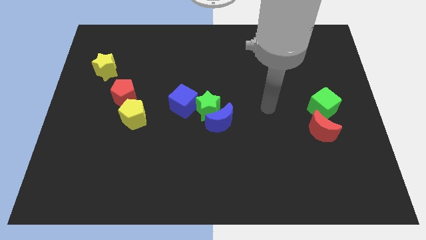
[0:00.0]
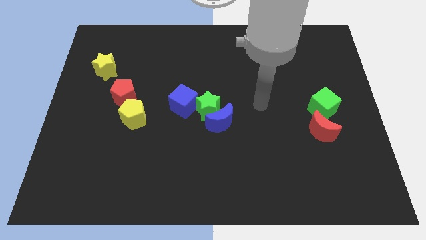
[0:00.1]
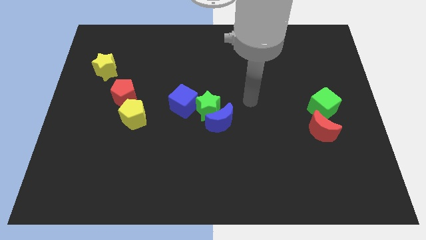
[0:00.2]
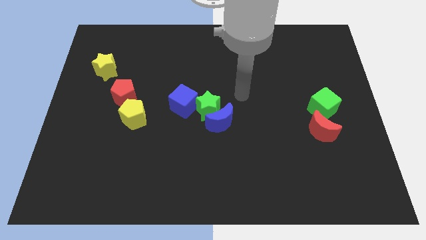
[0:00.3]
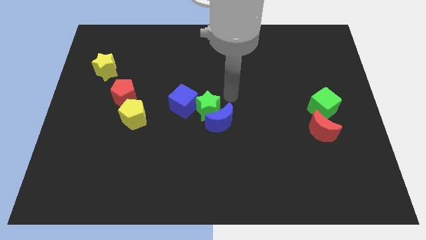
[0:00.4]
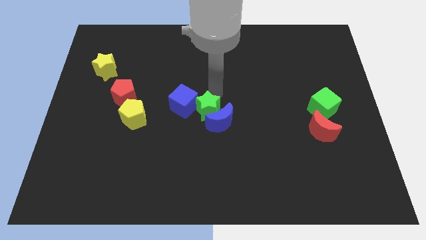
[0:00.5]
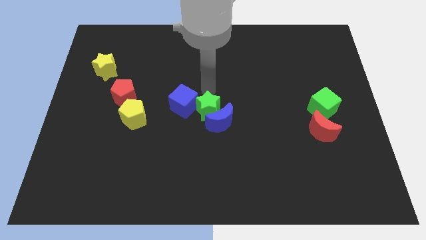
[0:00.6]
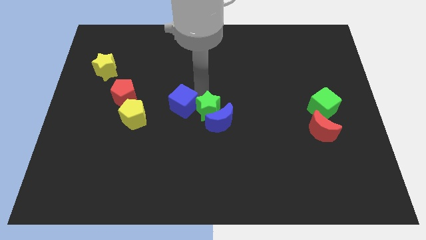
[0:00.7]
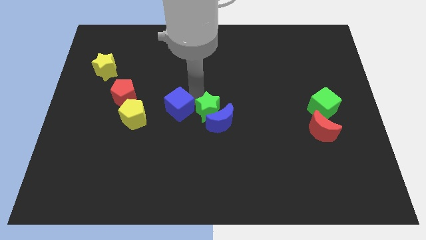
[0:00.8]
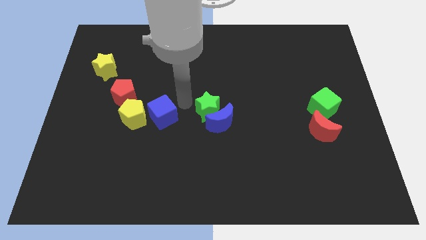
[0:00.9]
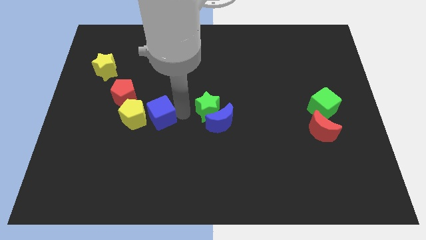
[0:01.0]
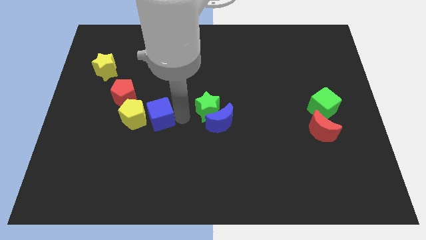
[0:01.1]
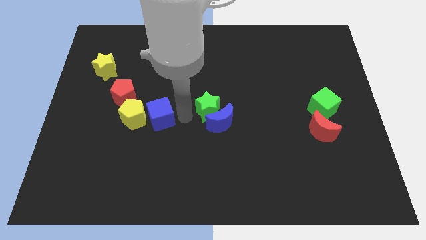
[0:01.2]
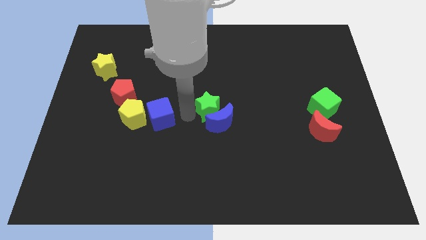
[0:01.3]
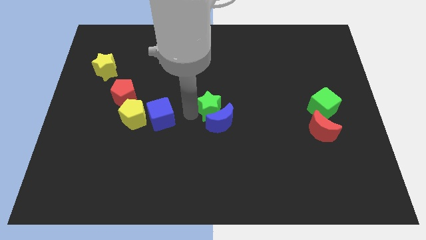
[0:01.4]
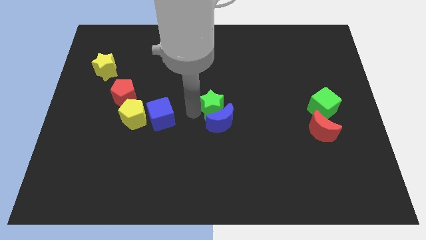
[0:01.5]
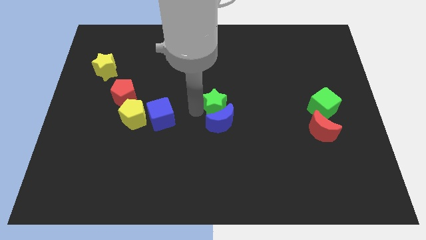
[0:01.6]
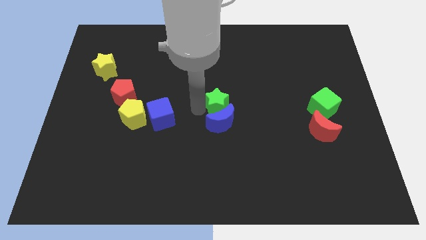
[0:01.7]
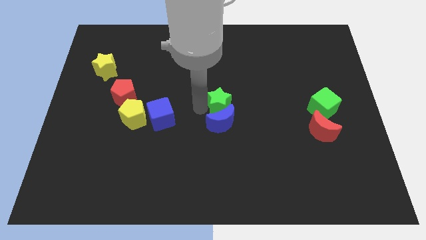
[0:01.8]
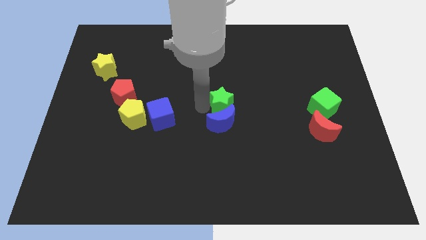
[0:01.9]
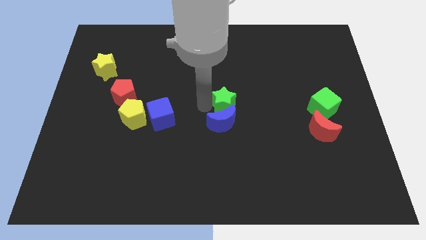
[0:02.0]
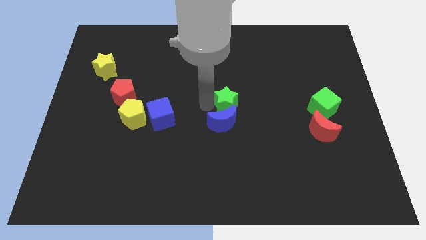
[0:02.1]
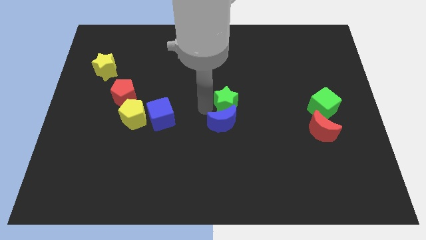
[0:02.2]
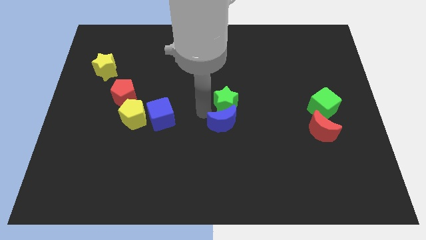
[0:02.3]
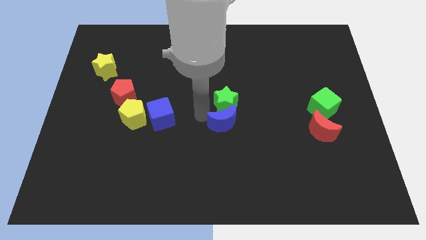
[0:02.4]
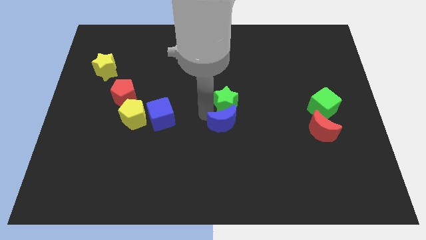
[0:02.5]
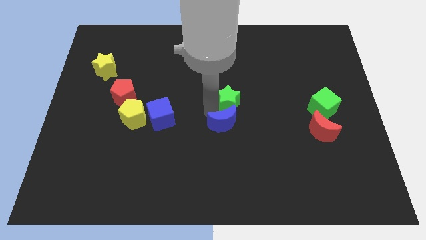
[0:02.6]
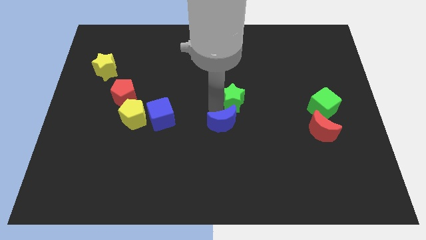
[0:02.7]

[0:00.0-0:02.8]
separate the green star from the blue moon and blue cube

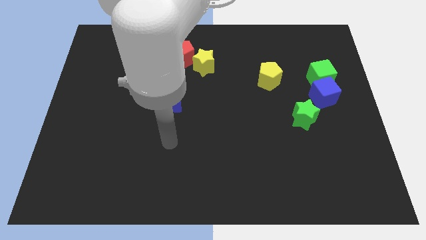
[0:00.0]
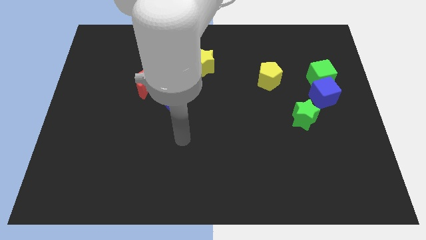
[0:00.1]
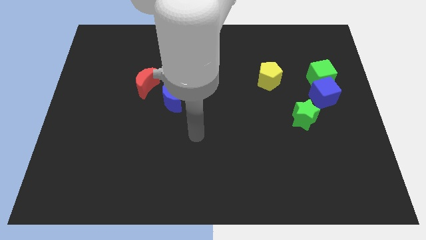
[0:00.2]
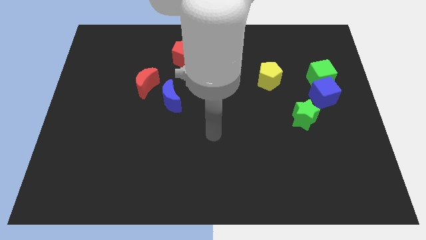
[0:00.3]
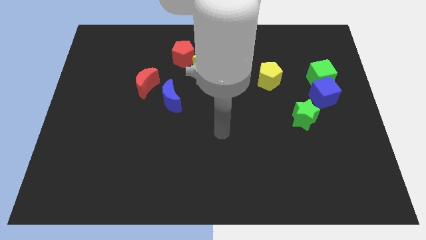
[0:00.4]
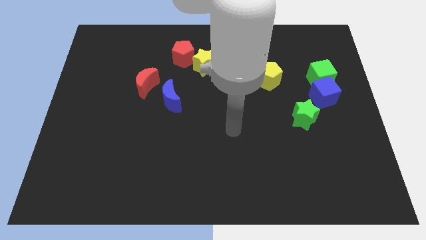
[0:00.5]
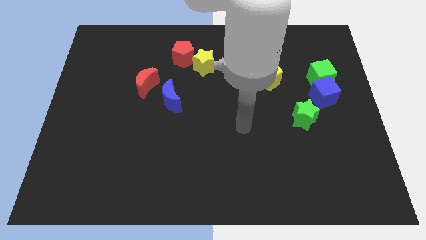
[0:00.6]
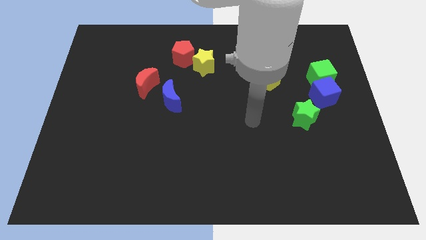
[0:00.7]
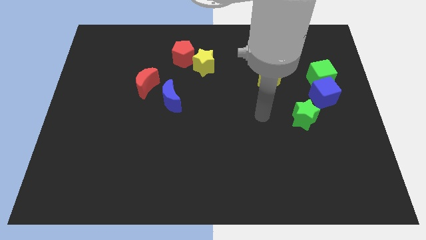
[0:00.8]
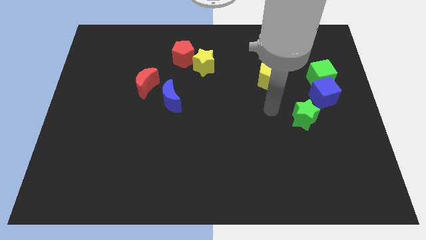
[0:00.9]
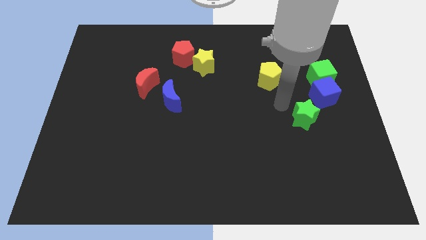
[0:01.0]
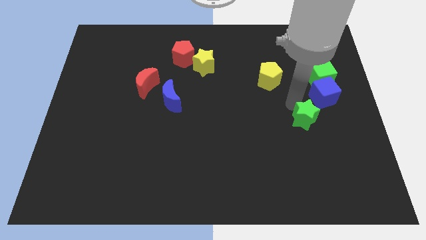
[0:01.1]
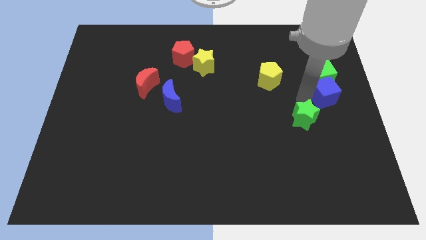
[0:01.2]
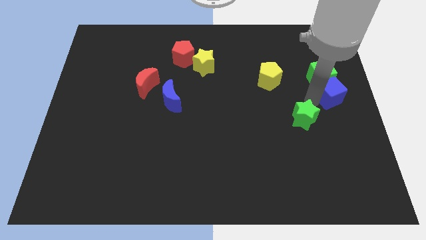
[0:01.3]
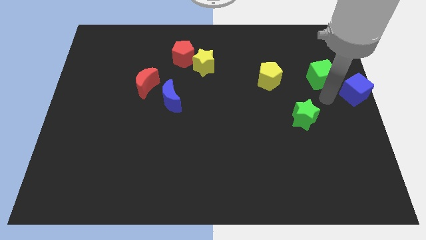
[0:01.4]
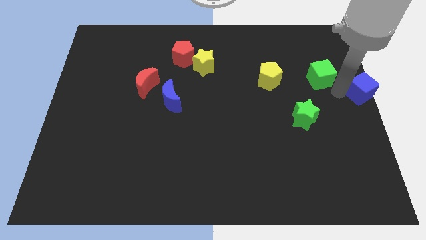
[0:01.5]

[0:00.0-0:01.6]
move the green cube away from the blue cube

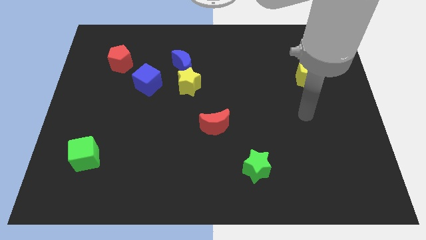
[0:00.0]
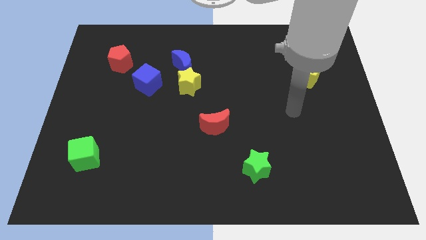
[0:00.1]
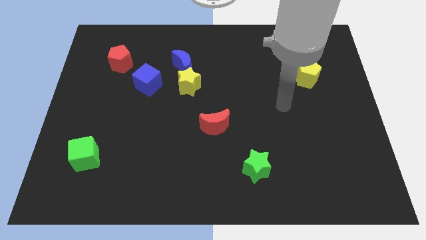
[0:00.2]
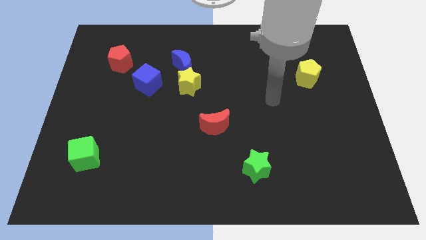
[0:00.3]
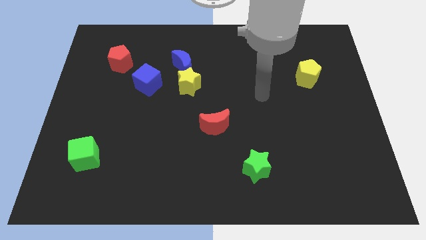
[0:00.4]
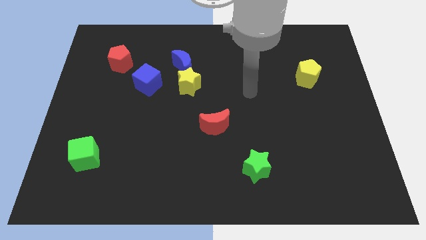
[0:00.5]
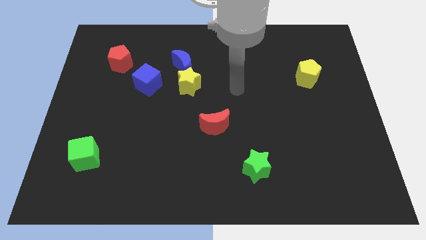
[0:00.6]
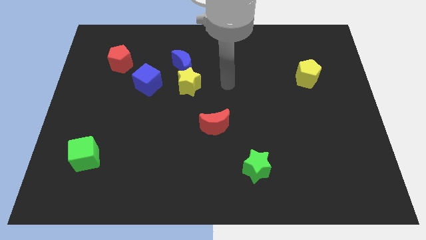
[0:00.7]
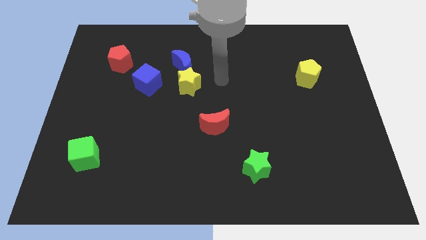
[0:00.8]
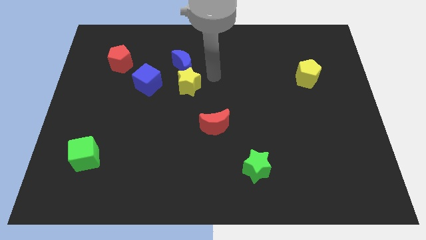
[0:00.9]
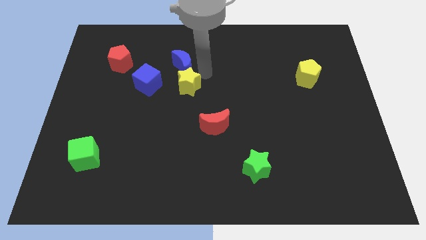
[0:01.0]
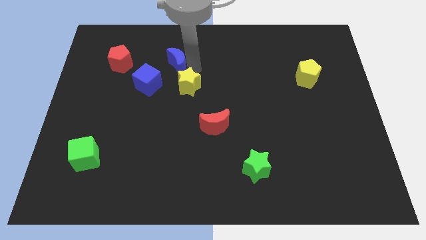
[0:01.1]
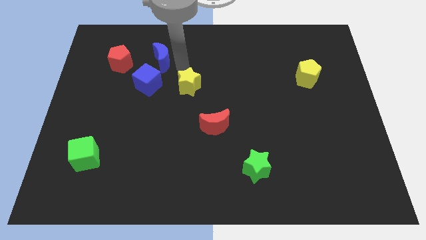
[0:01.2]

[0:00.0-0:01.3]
separate the yellow star from the blue moon and blue cube

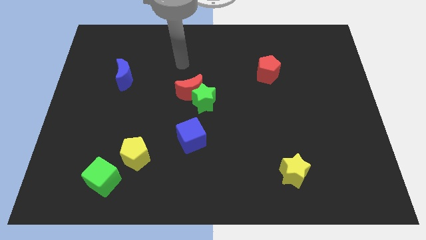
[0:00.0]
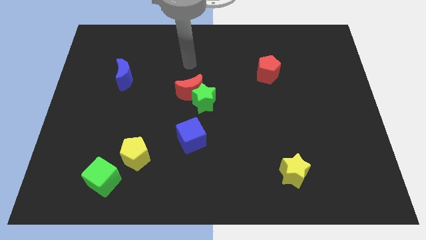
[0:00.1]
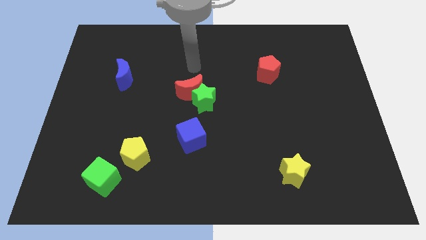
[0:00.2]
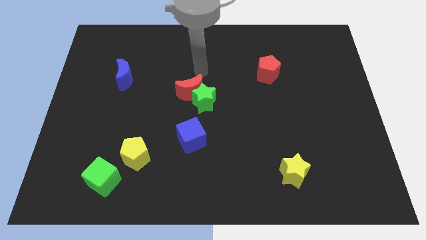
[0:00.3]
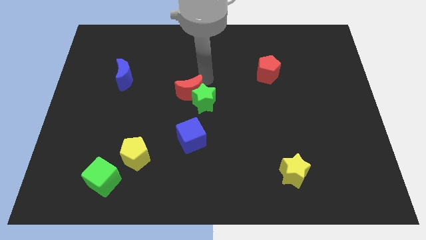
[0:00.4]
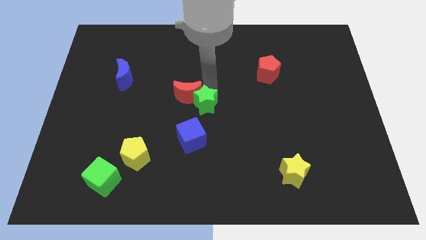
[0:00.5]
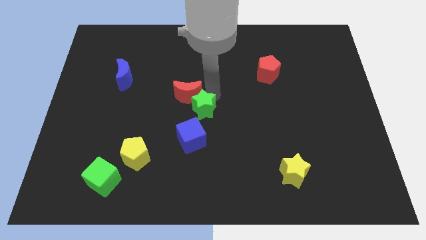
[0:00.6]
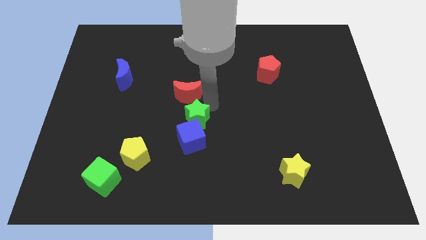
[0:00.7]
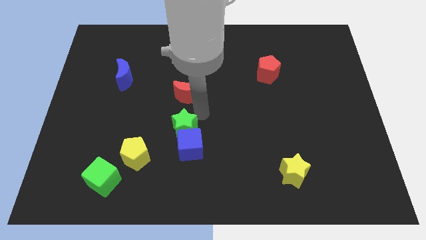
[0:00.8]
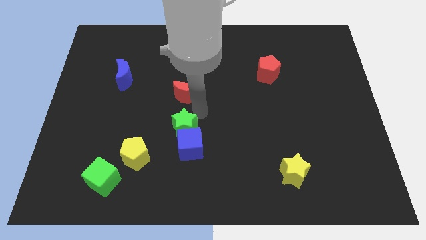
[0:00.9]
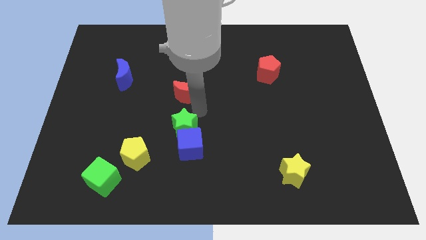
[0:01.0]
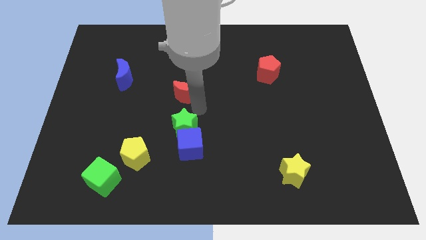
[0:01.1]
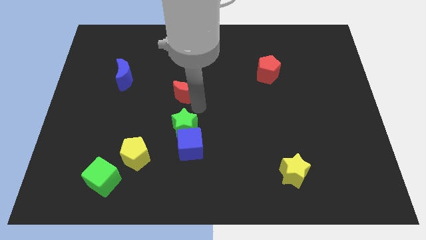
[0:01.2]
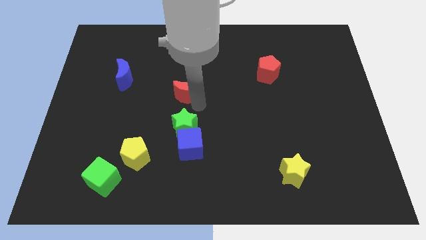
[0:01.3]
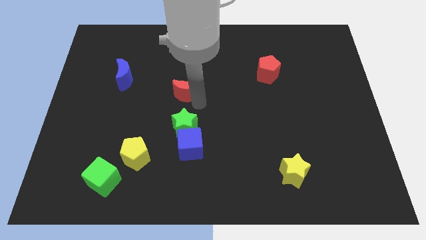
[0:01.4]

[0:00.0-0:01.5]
pull the red moon apart from the green star

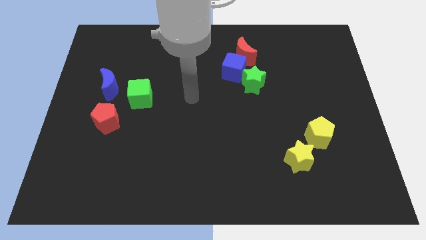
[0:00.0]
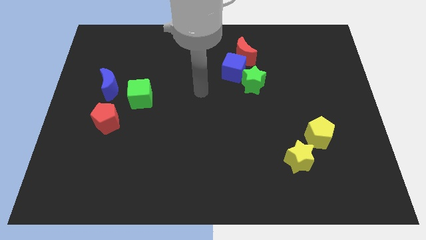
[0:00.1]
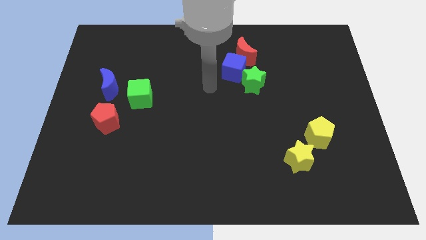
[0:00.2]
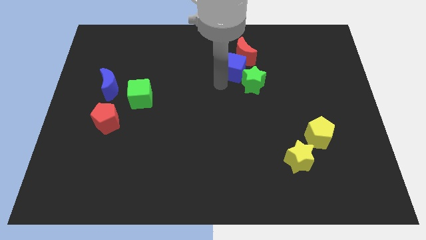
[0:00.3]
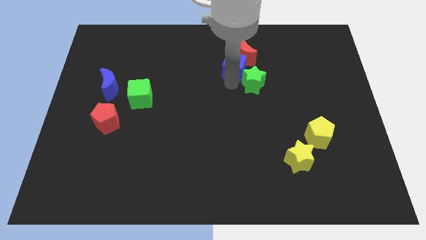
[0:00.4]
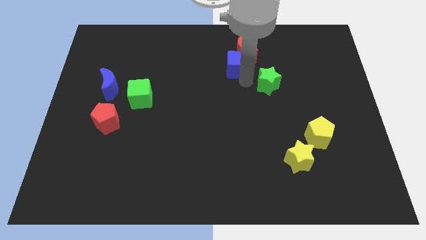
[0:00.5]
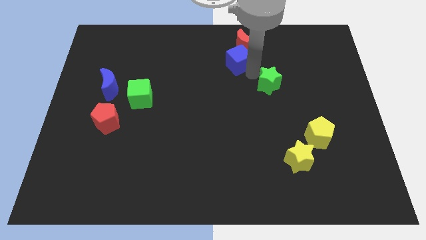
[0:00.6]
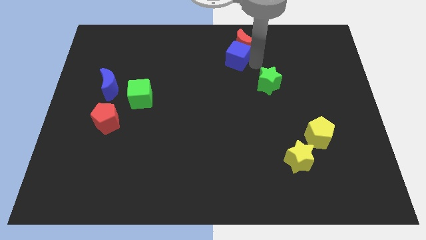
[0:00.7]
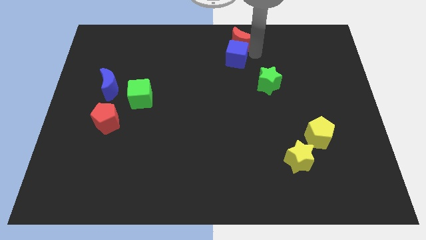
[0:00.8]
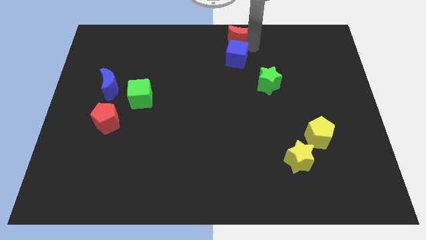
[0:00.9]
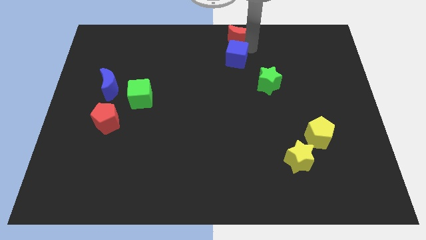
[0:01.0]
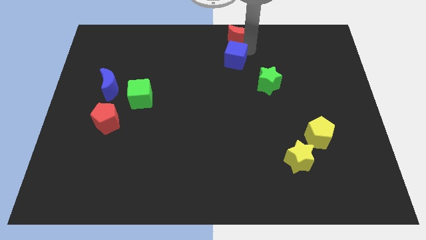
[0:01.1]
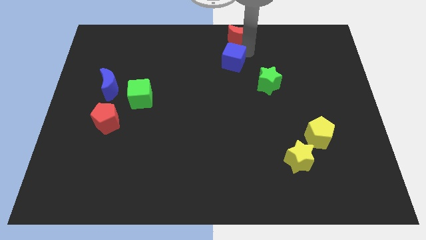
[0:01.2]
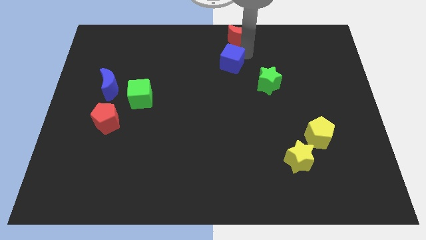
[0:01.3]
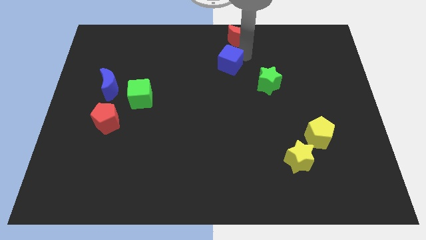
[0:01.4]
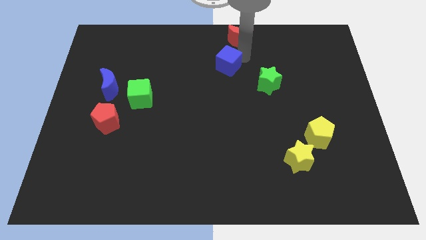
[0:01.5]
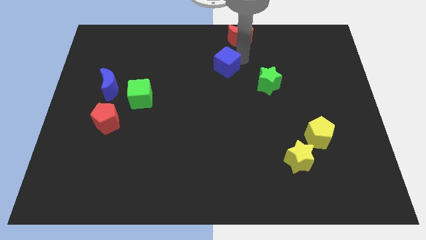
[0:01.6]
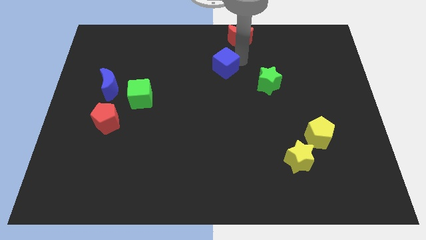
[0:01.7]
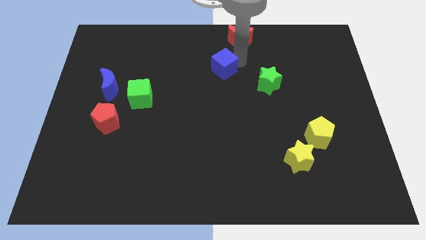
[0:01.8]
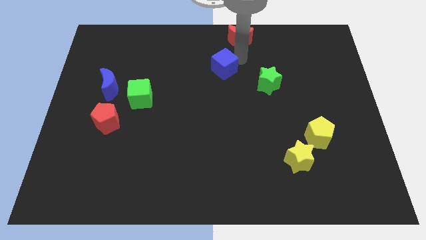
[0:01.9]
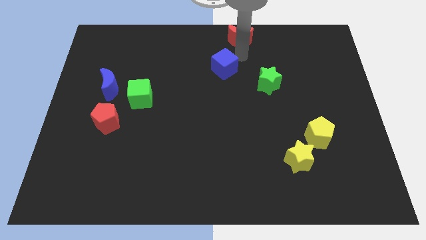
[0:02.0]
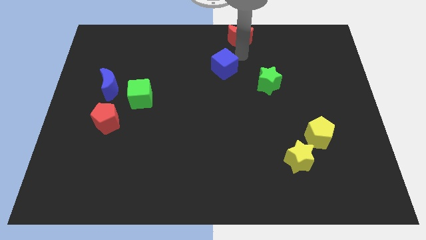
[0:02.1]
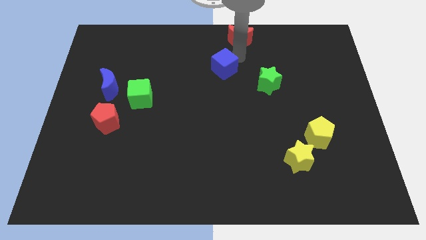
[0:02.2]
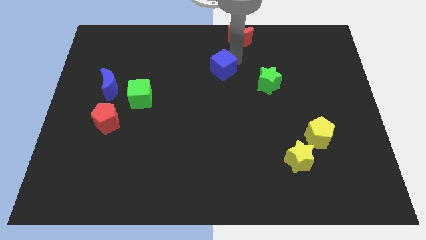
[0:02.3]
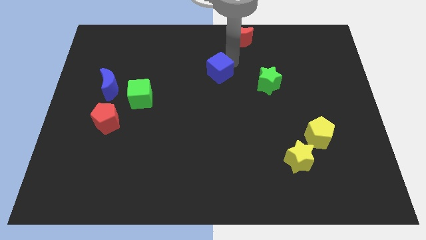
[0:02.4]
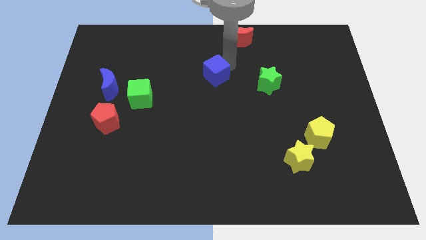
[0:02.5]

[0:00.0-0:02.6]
move the blue cube away from the red moon and green star
